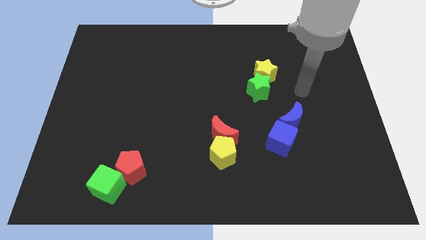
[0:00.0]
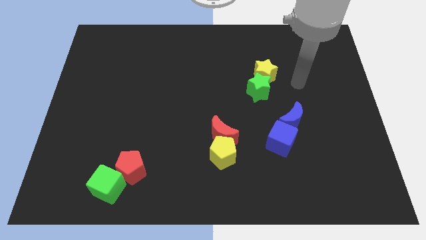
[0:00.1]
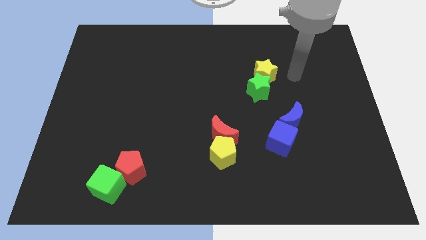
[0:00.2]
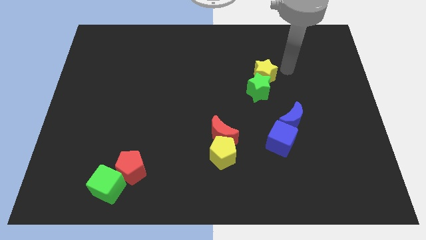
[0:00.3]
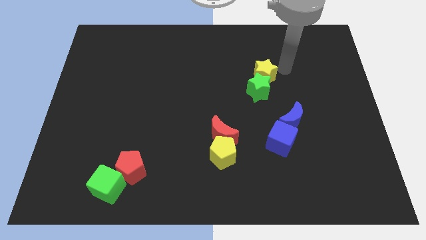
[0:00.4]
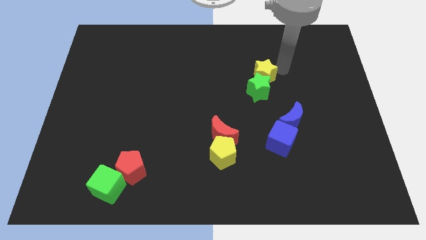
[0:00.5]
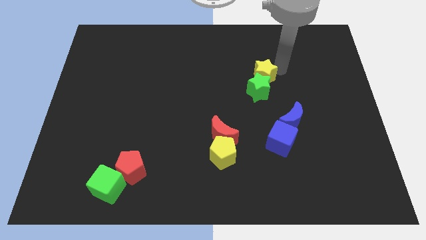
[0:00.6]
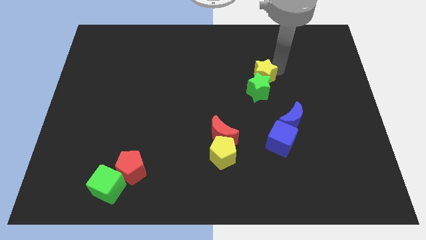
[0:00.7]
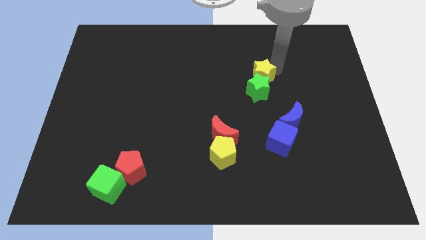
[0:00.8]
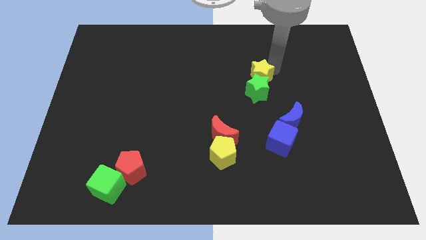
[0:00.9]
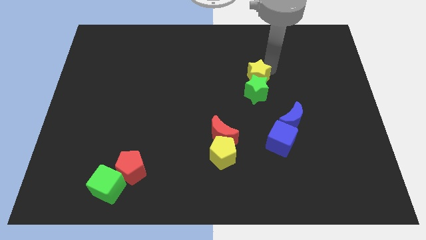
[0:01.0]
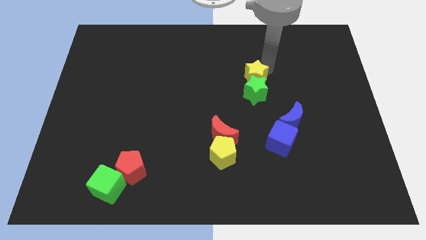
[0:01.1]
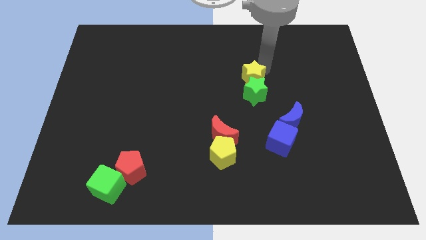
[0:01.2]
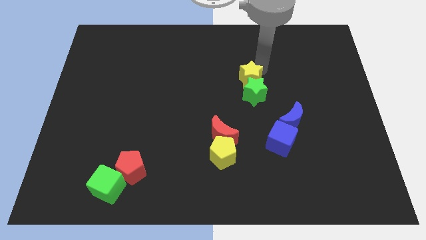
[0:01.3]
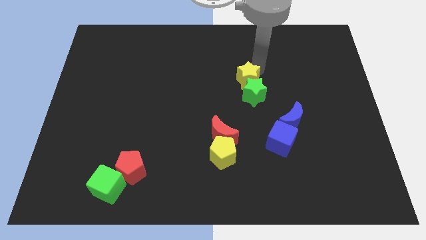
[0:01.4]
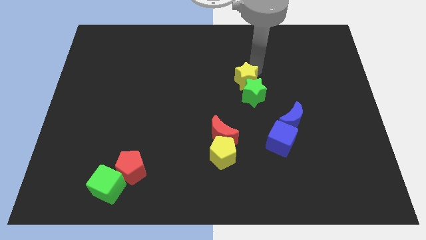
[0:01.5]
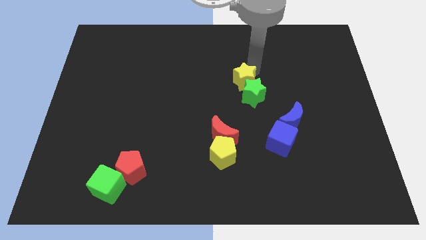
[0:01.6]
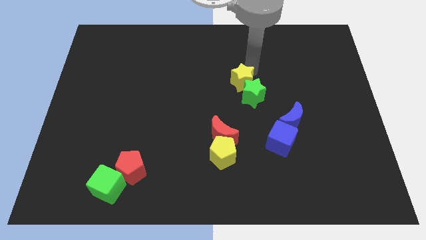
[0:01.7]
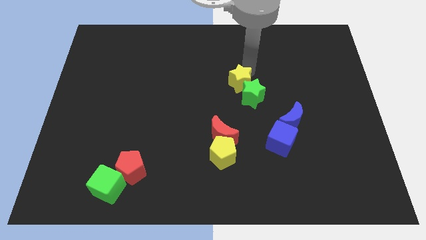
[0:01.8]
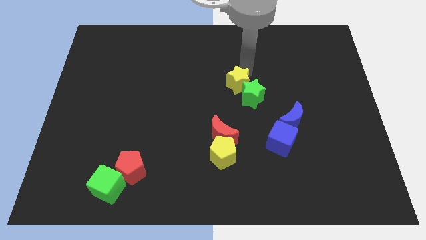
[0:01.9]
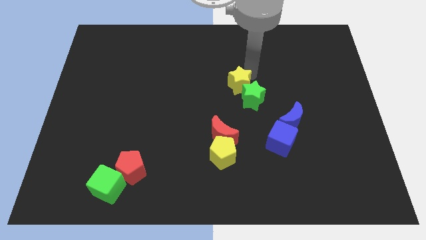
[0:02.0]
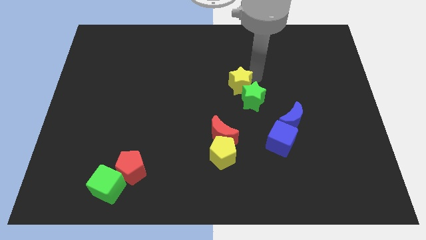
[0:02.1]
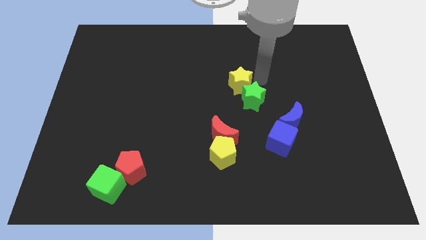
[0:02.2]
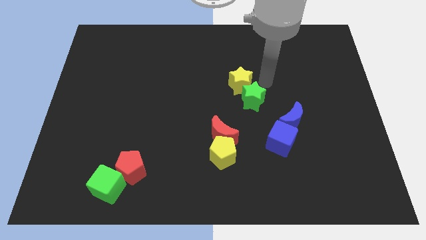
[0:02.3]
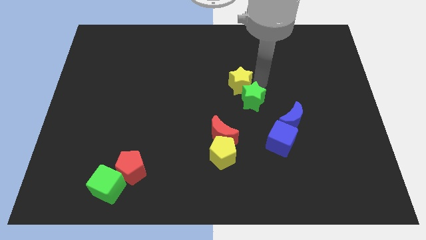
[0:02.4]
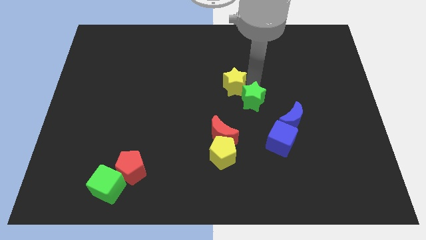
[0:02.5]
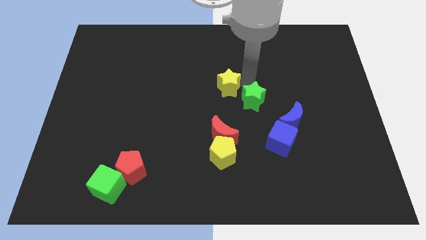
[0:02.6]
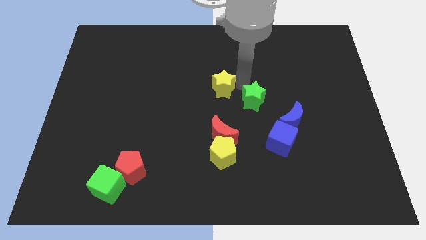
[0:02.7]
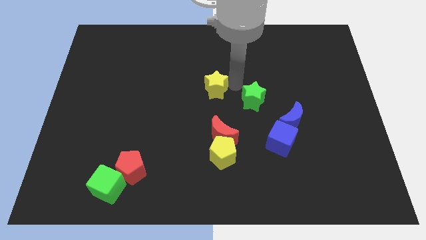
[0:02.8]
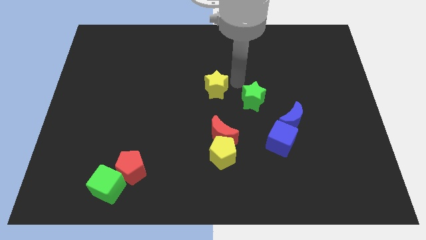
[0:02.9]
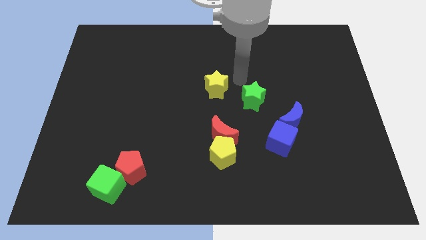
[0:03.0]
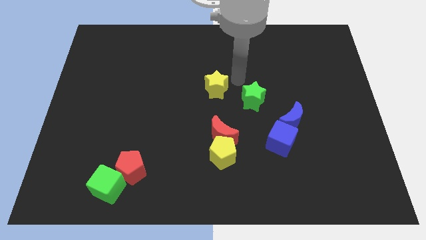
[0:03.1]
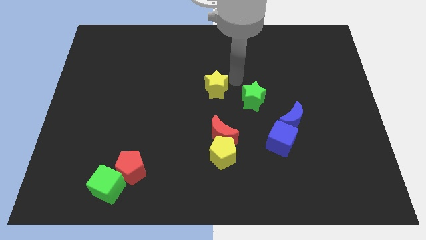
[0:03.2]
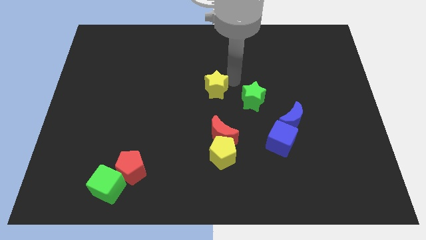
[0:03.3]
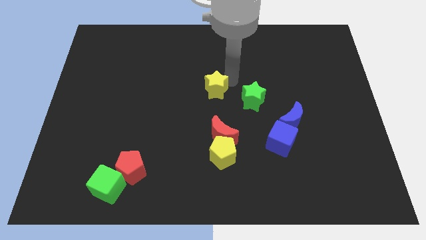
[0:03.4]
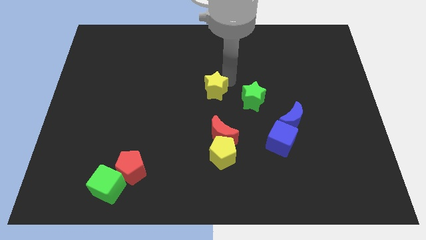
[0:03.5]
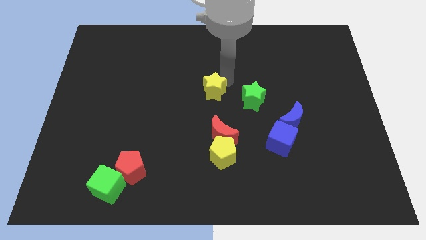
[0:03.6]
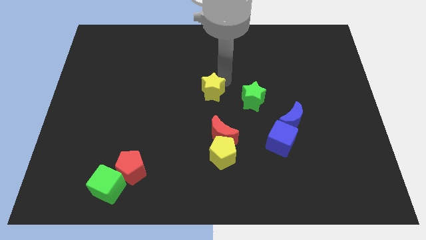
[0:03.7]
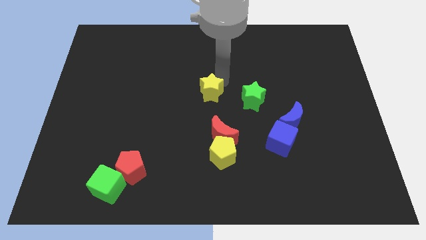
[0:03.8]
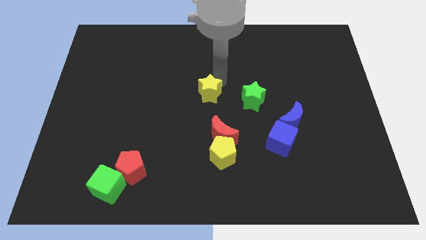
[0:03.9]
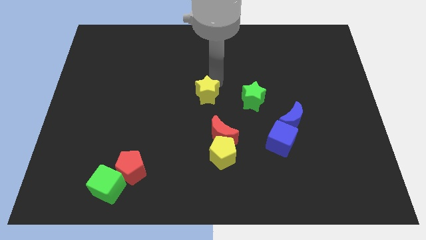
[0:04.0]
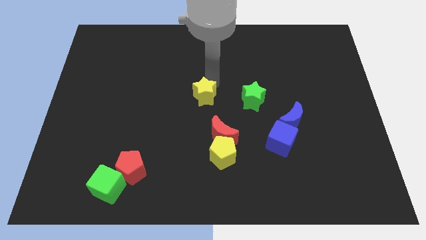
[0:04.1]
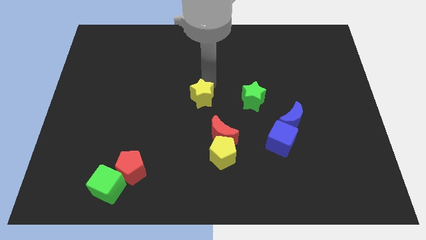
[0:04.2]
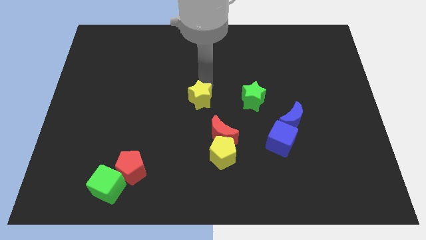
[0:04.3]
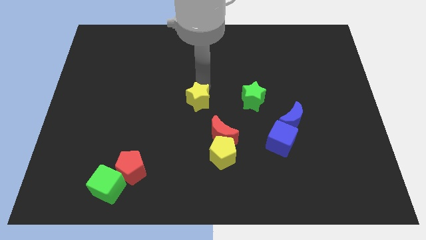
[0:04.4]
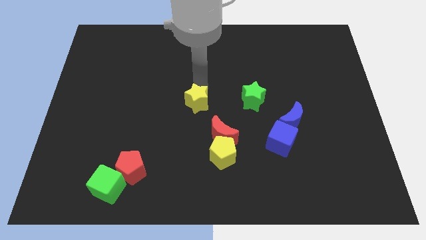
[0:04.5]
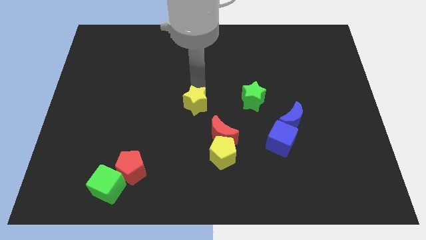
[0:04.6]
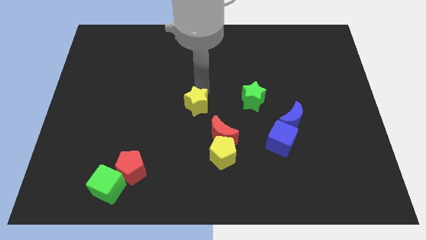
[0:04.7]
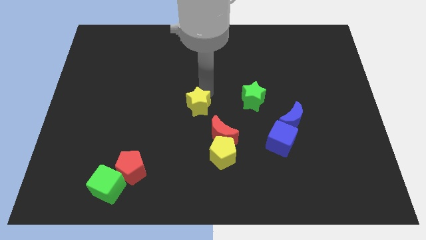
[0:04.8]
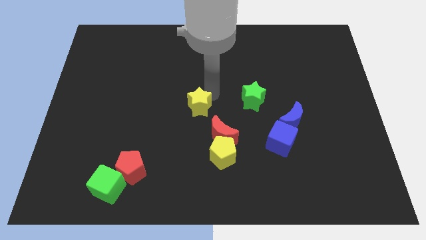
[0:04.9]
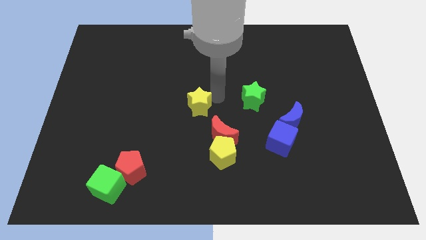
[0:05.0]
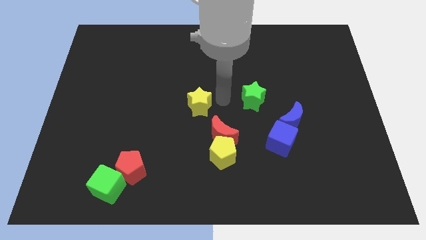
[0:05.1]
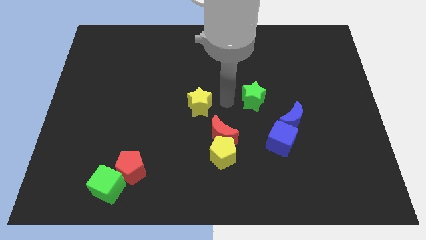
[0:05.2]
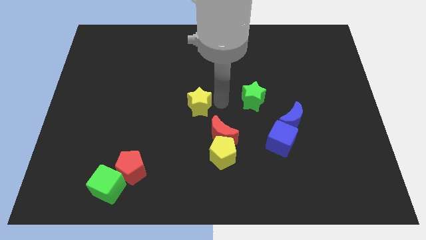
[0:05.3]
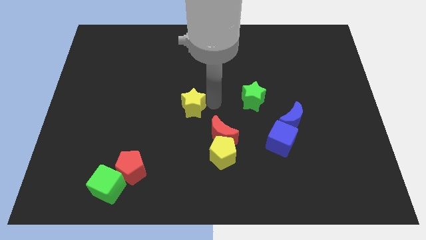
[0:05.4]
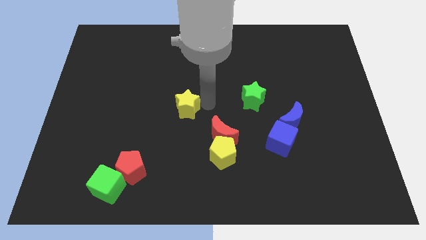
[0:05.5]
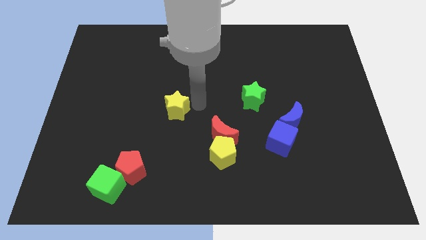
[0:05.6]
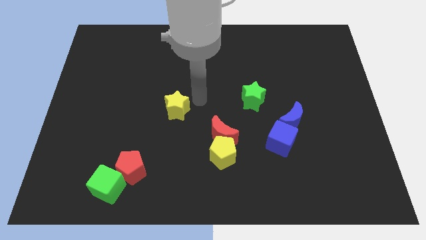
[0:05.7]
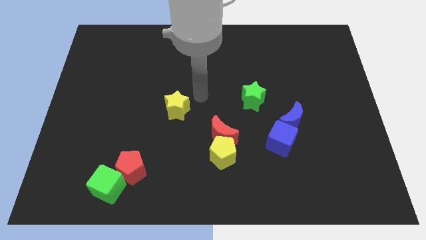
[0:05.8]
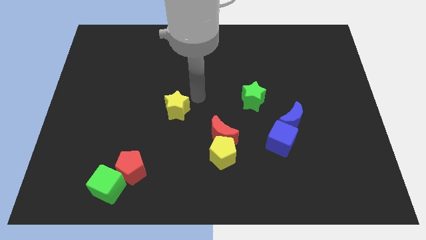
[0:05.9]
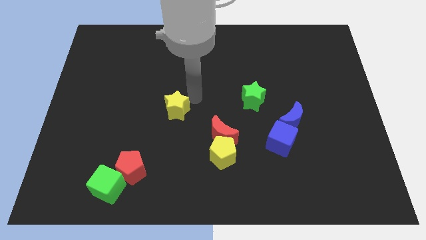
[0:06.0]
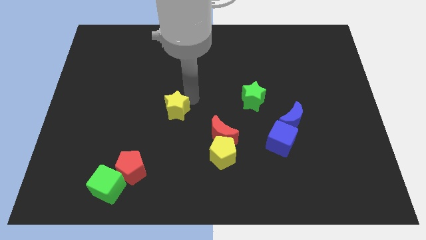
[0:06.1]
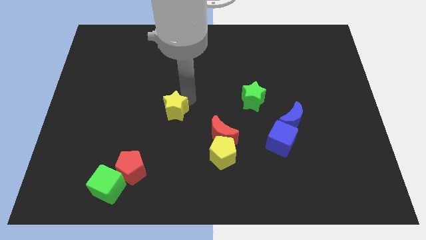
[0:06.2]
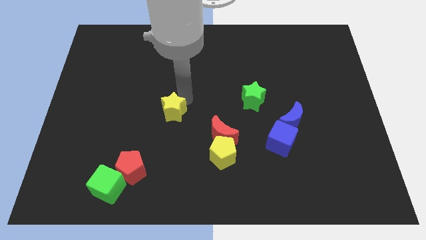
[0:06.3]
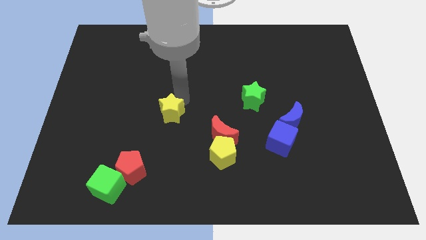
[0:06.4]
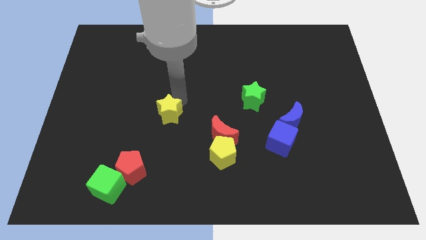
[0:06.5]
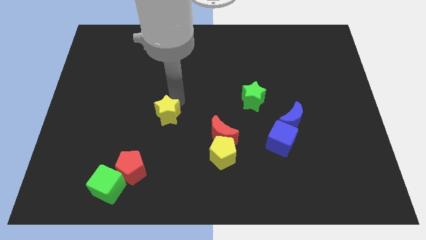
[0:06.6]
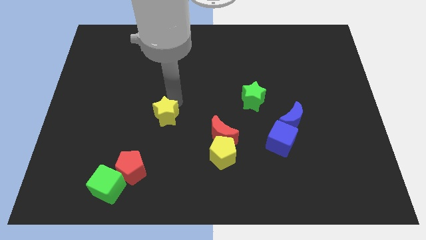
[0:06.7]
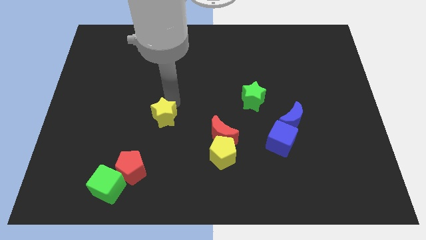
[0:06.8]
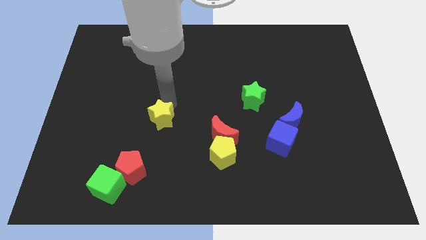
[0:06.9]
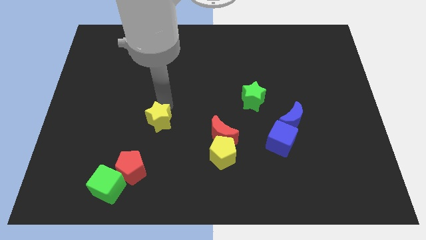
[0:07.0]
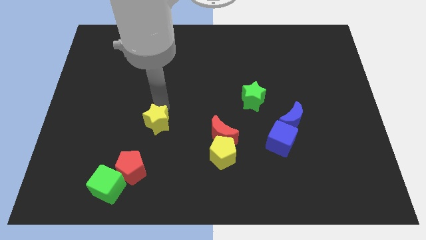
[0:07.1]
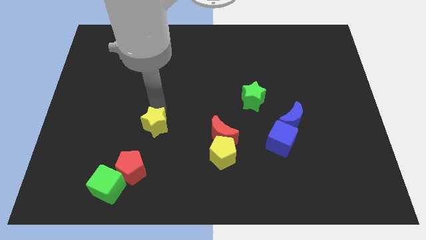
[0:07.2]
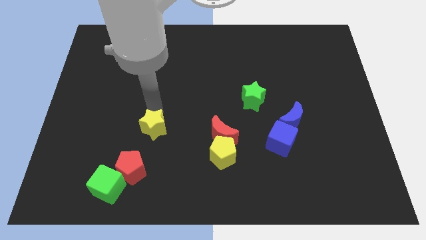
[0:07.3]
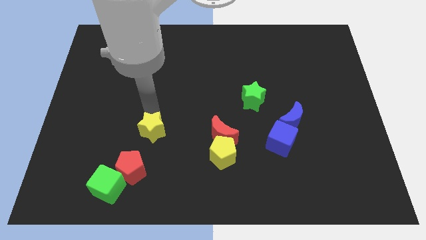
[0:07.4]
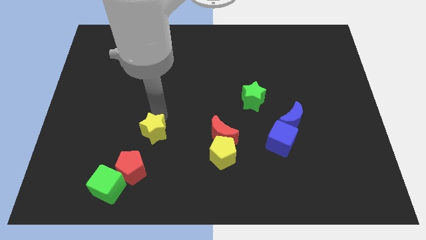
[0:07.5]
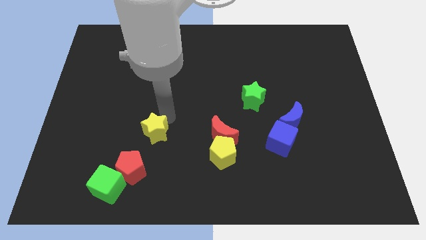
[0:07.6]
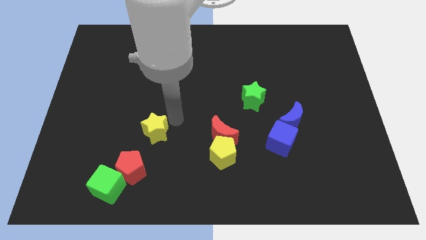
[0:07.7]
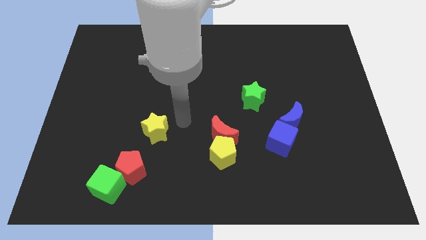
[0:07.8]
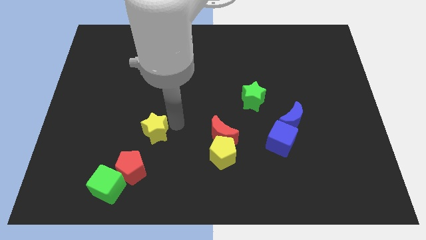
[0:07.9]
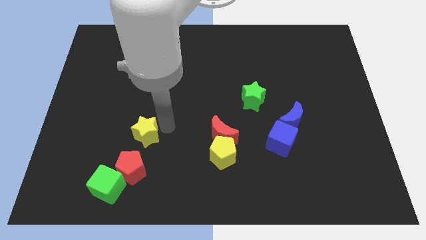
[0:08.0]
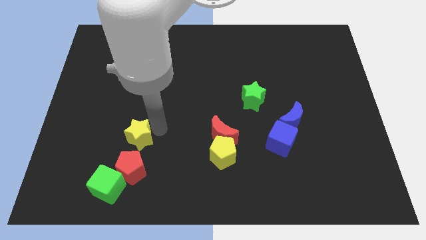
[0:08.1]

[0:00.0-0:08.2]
slide the yellow star to the top of the green cube
